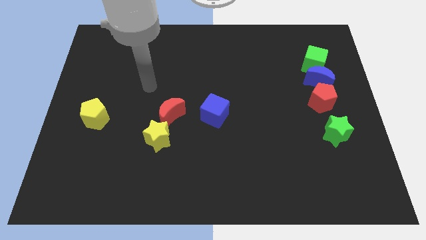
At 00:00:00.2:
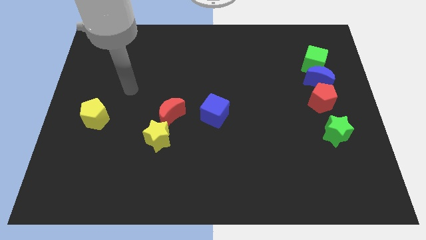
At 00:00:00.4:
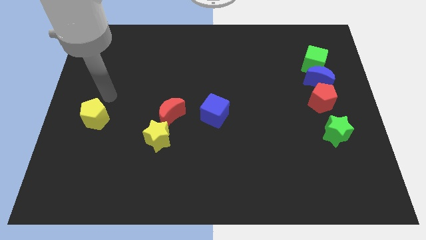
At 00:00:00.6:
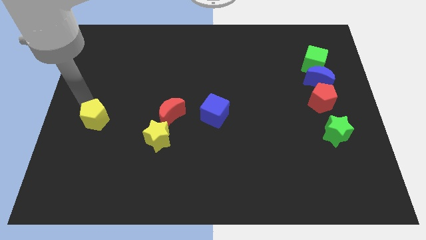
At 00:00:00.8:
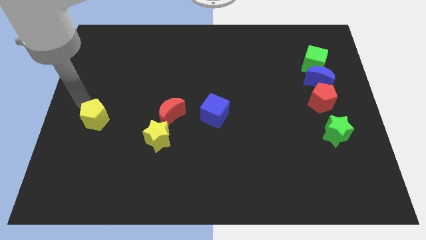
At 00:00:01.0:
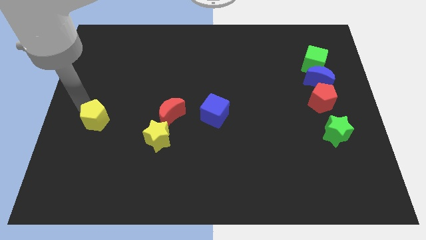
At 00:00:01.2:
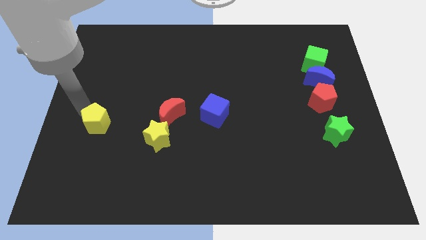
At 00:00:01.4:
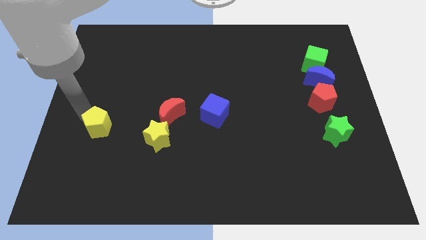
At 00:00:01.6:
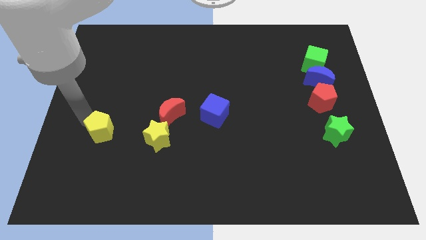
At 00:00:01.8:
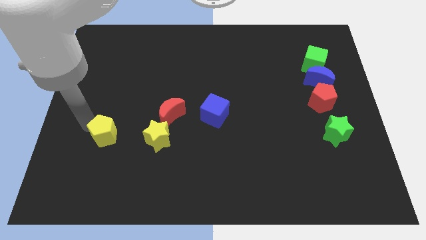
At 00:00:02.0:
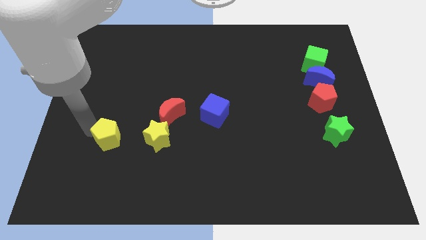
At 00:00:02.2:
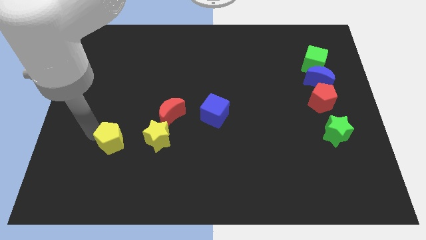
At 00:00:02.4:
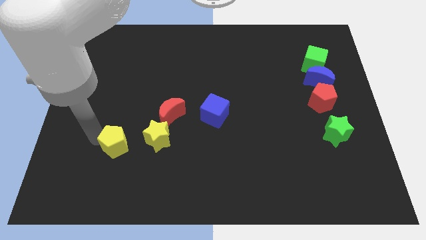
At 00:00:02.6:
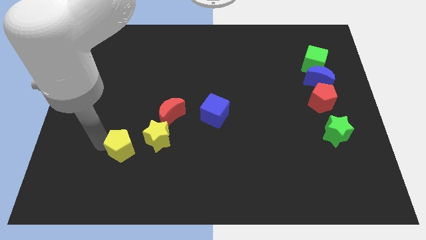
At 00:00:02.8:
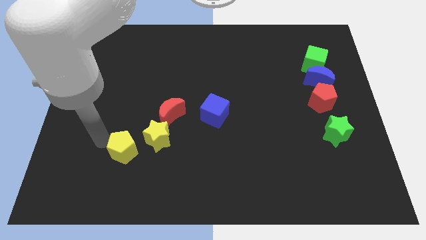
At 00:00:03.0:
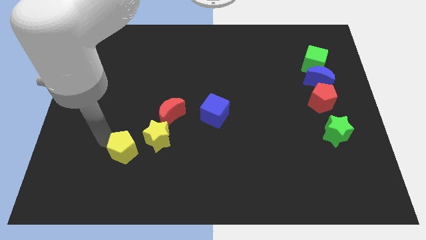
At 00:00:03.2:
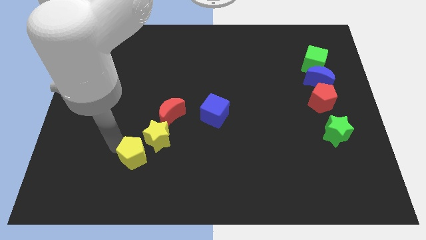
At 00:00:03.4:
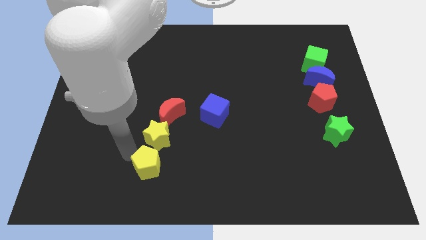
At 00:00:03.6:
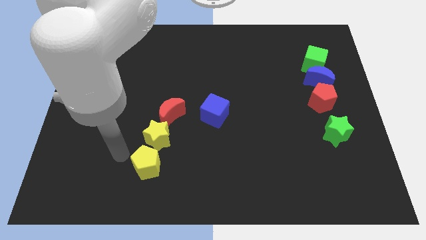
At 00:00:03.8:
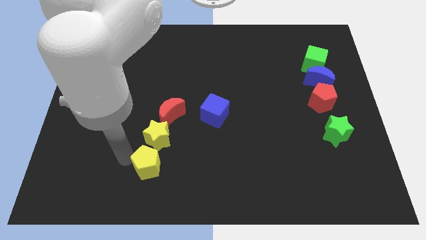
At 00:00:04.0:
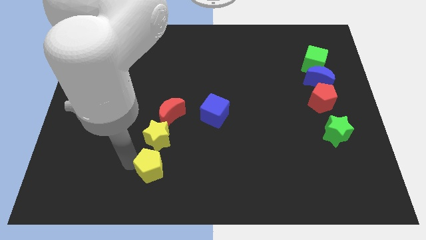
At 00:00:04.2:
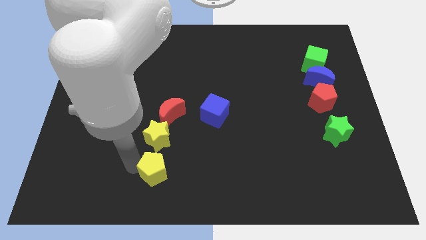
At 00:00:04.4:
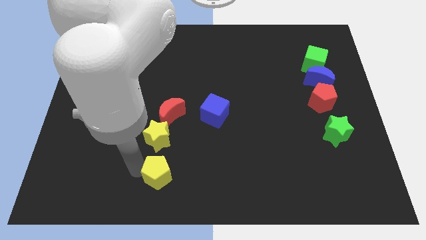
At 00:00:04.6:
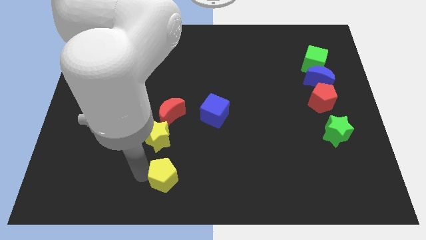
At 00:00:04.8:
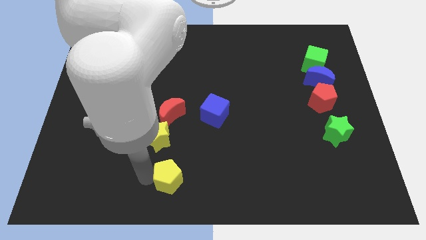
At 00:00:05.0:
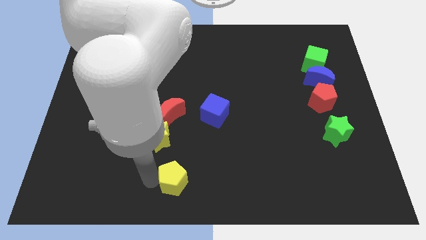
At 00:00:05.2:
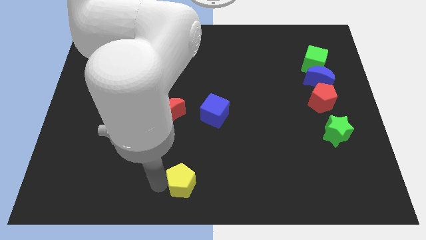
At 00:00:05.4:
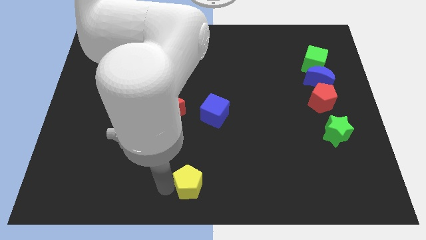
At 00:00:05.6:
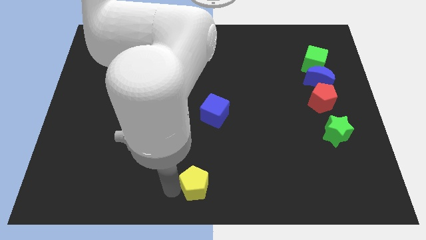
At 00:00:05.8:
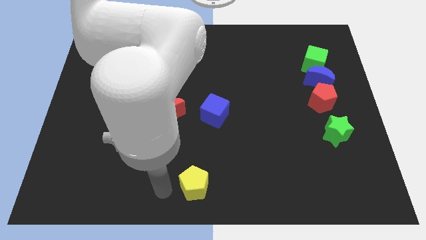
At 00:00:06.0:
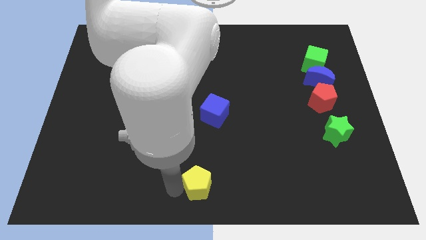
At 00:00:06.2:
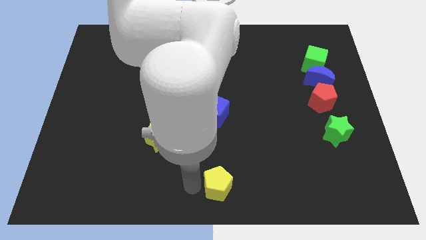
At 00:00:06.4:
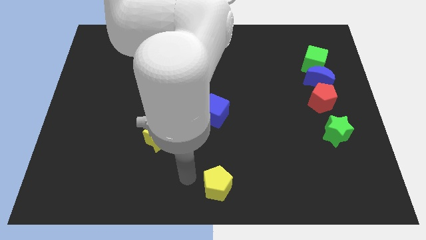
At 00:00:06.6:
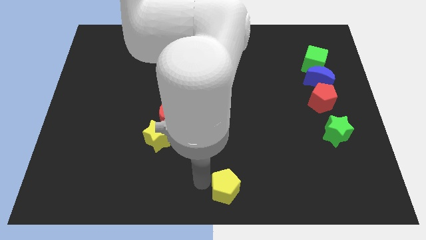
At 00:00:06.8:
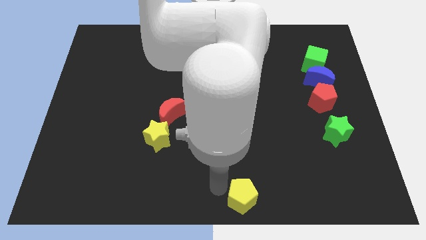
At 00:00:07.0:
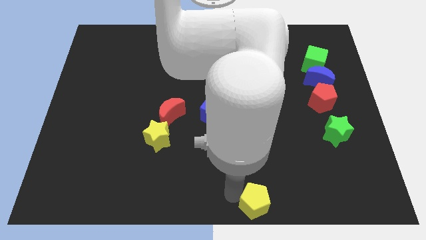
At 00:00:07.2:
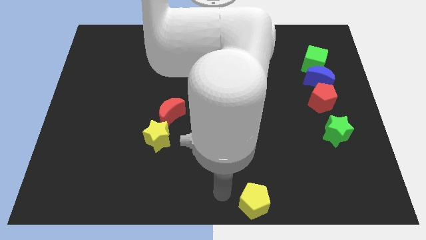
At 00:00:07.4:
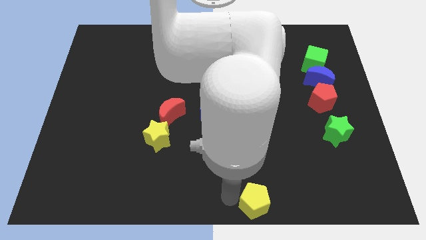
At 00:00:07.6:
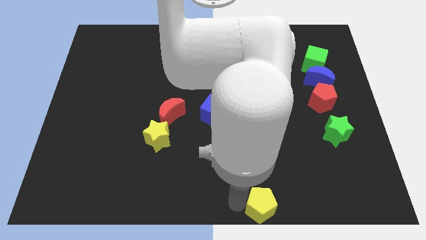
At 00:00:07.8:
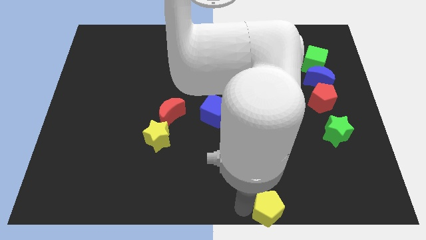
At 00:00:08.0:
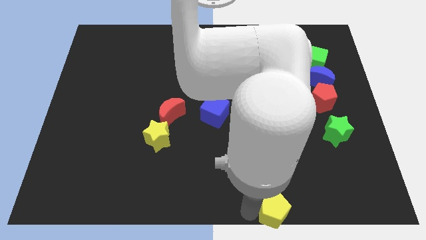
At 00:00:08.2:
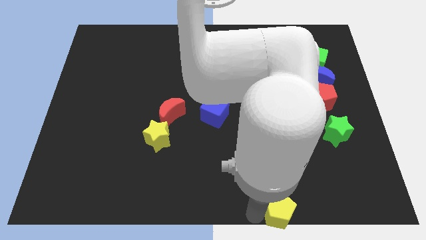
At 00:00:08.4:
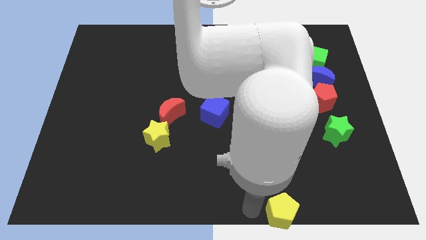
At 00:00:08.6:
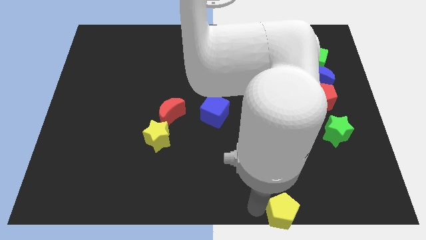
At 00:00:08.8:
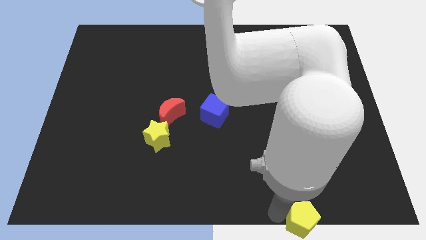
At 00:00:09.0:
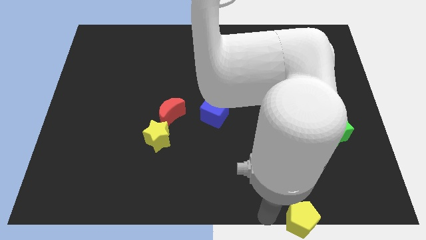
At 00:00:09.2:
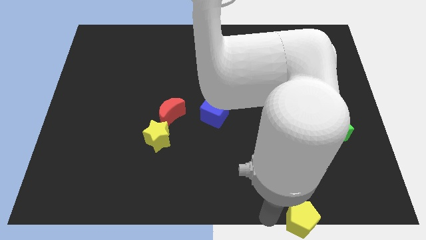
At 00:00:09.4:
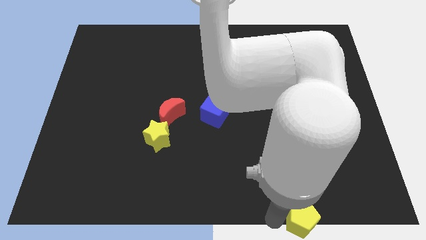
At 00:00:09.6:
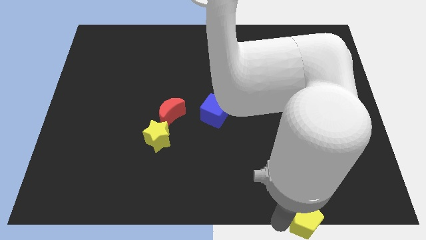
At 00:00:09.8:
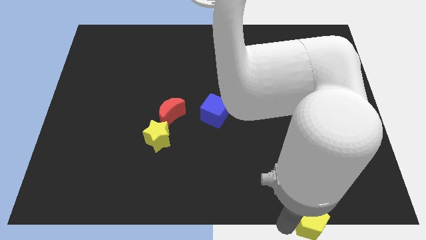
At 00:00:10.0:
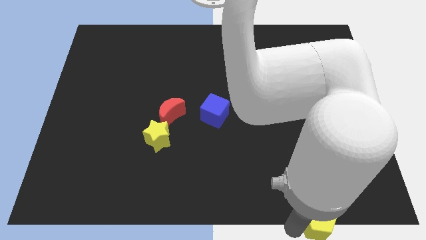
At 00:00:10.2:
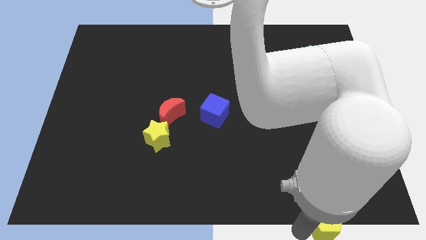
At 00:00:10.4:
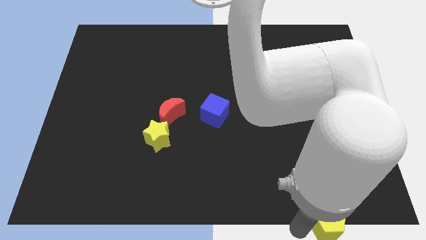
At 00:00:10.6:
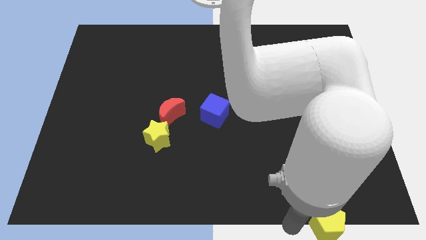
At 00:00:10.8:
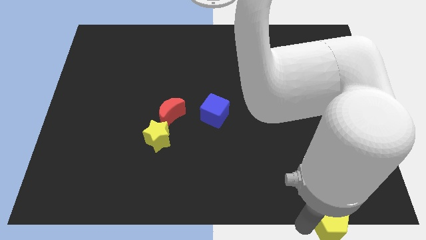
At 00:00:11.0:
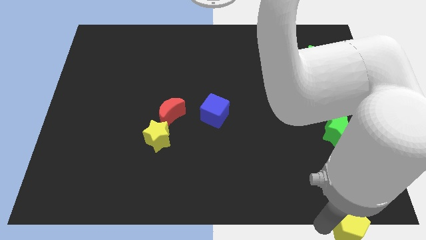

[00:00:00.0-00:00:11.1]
put the yellow pentagon to the bottom right of the board

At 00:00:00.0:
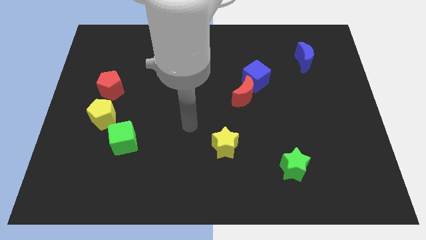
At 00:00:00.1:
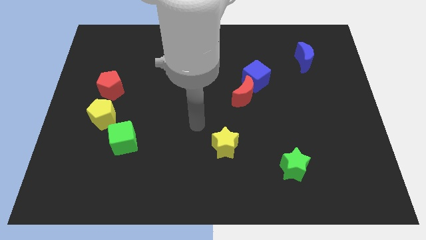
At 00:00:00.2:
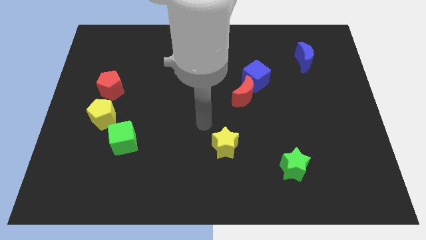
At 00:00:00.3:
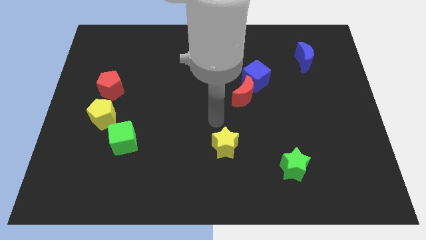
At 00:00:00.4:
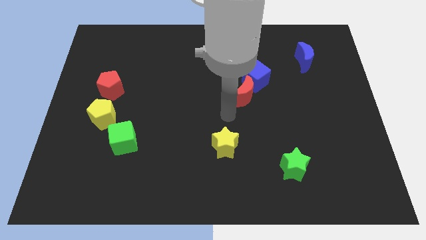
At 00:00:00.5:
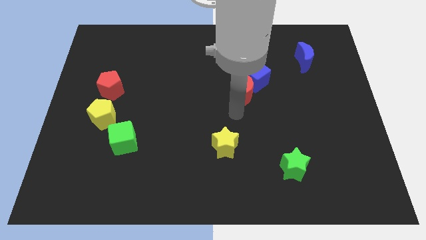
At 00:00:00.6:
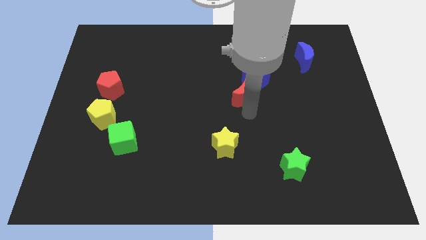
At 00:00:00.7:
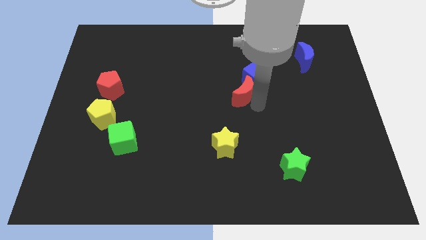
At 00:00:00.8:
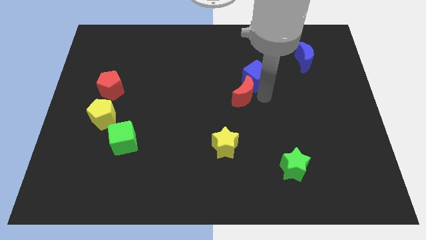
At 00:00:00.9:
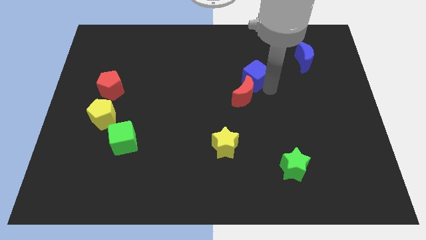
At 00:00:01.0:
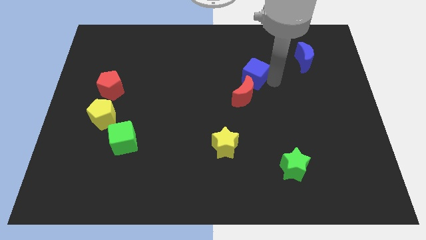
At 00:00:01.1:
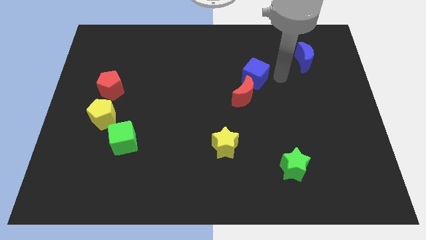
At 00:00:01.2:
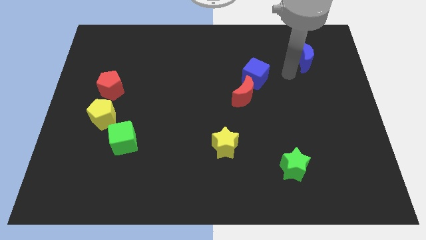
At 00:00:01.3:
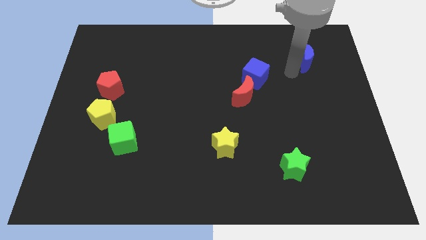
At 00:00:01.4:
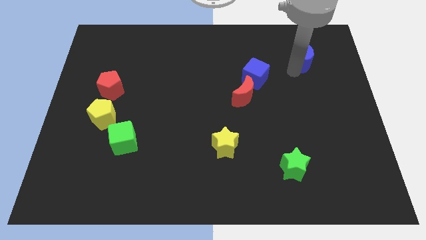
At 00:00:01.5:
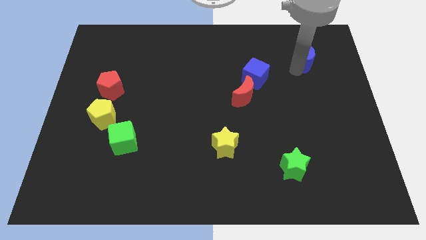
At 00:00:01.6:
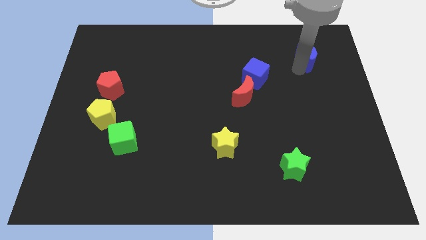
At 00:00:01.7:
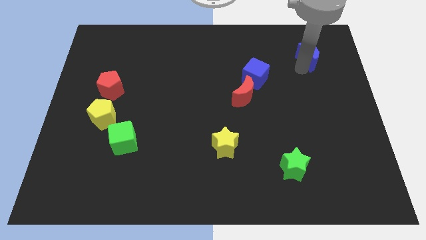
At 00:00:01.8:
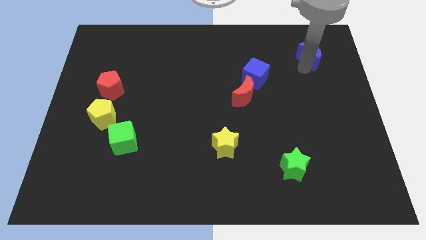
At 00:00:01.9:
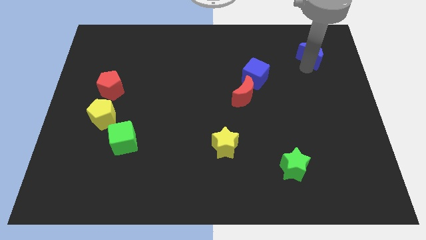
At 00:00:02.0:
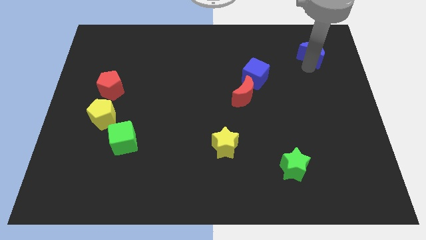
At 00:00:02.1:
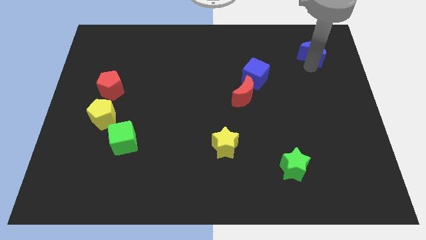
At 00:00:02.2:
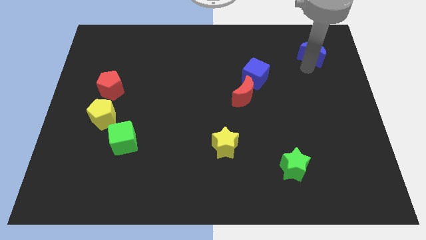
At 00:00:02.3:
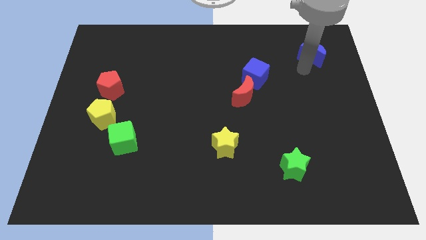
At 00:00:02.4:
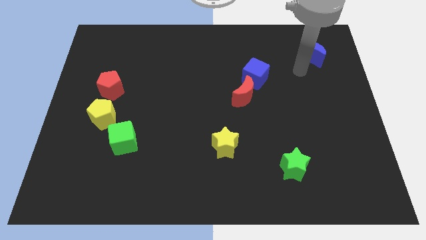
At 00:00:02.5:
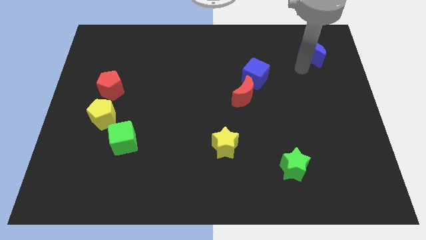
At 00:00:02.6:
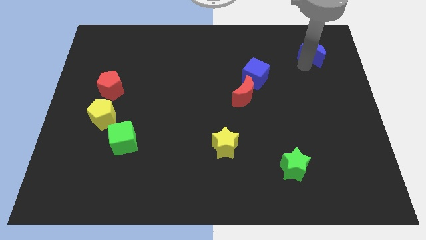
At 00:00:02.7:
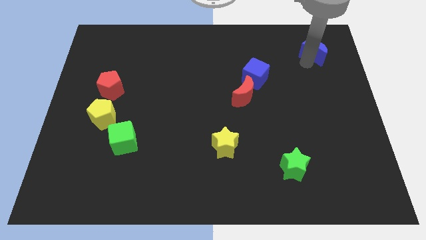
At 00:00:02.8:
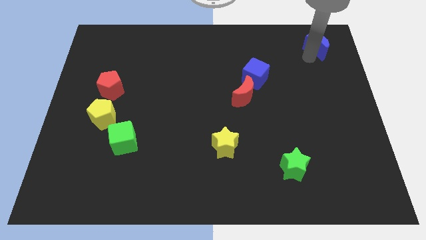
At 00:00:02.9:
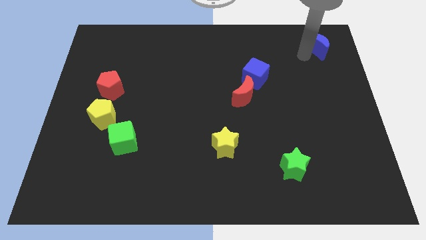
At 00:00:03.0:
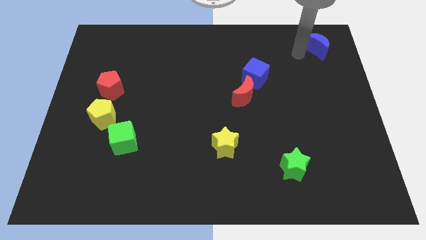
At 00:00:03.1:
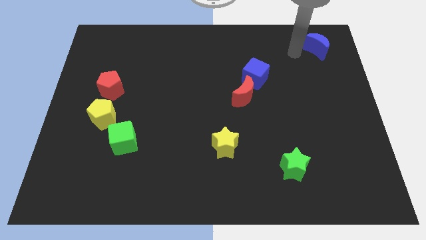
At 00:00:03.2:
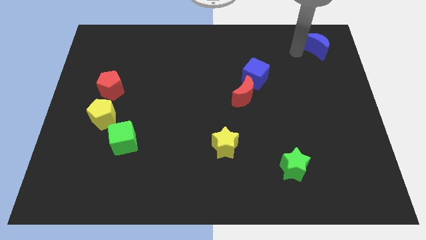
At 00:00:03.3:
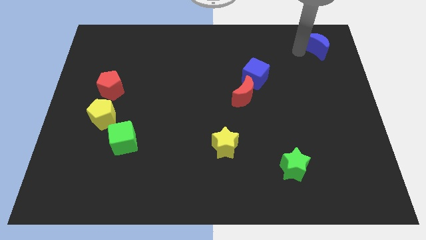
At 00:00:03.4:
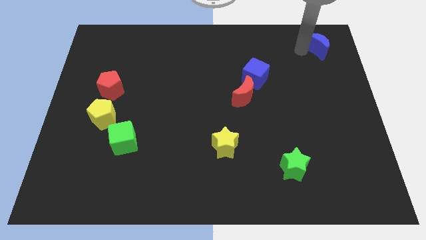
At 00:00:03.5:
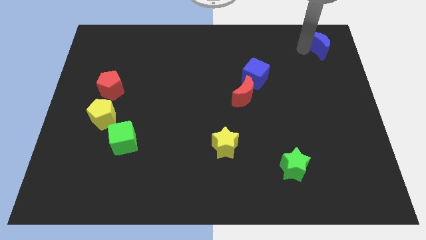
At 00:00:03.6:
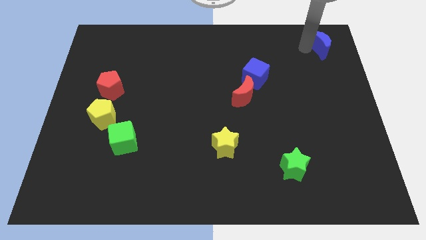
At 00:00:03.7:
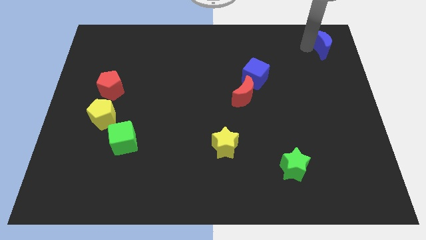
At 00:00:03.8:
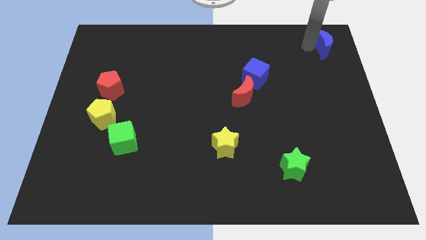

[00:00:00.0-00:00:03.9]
slide the blue moon to the top right of the board
